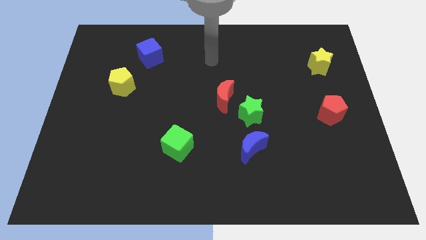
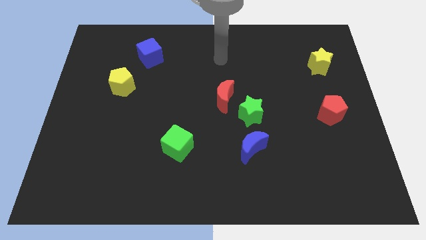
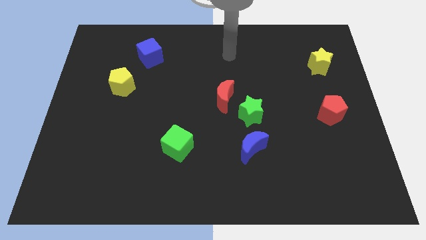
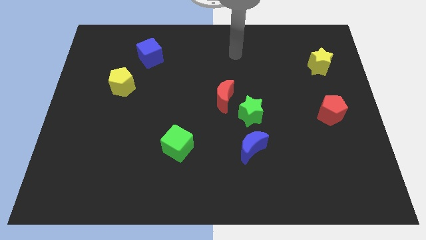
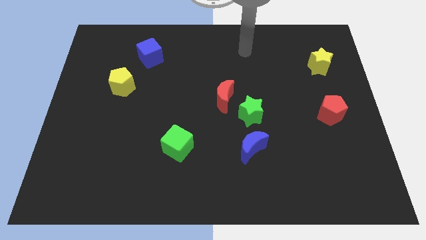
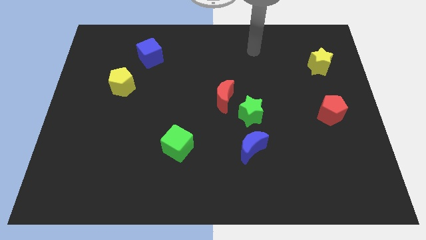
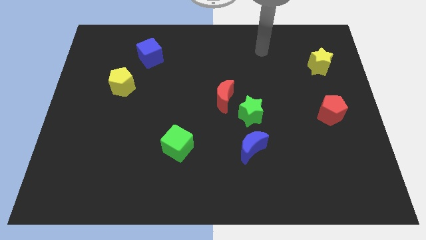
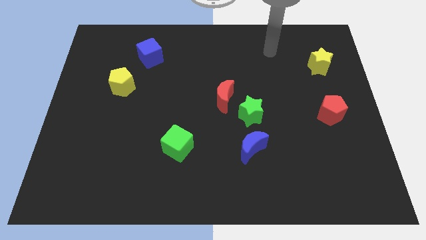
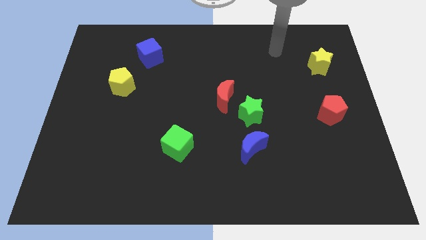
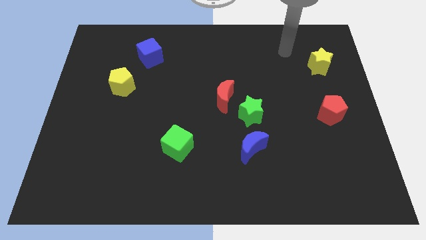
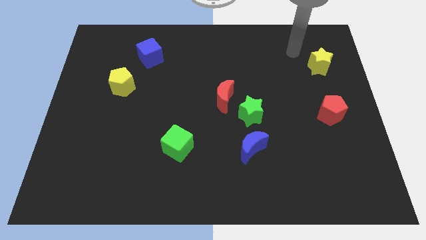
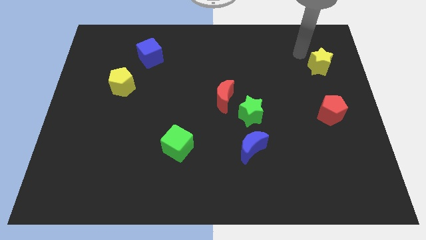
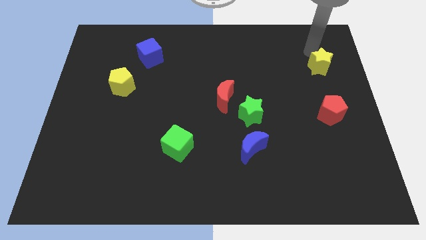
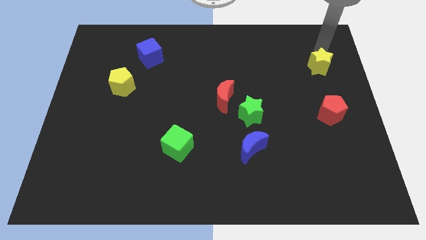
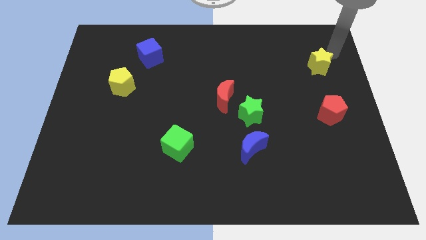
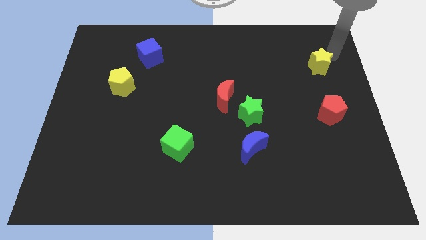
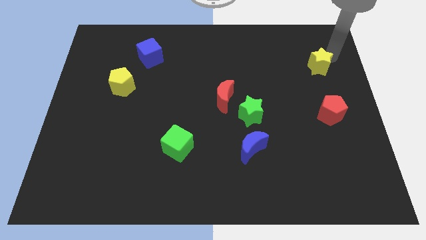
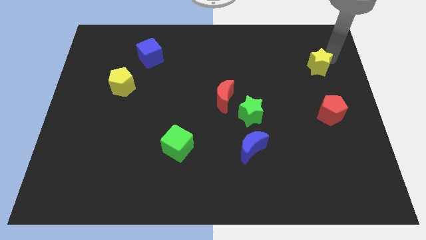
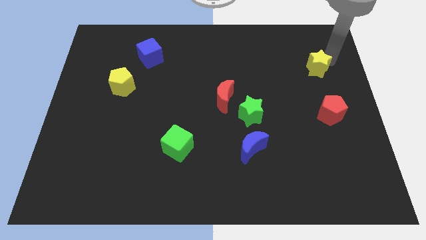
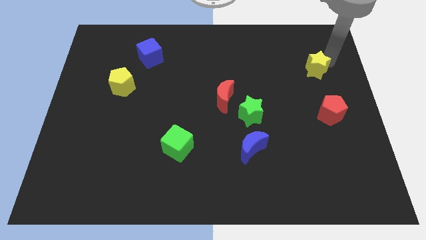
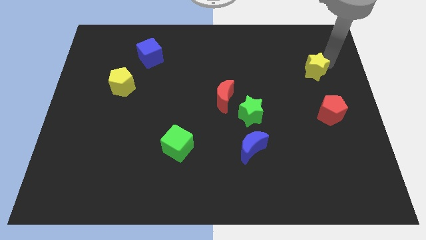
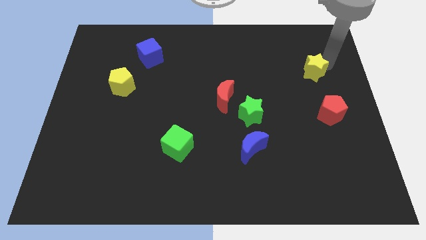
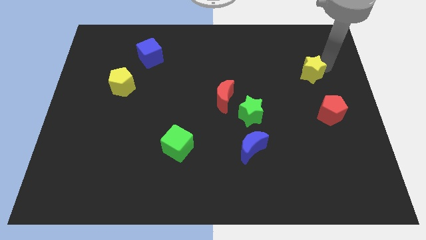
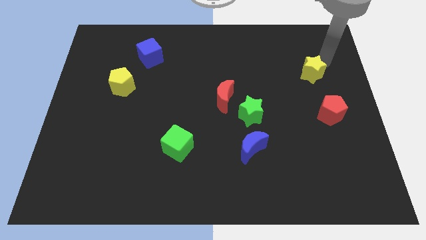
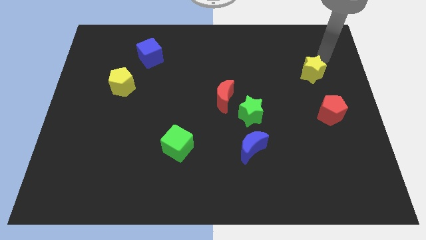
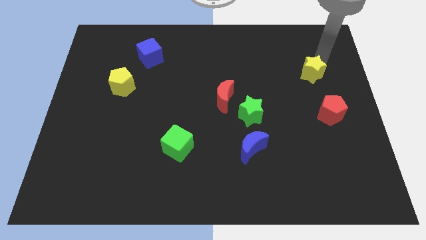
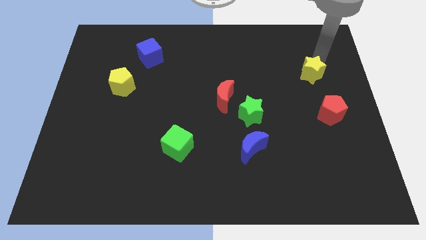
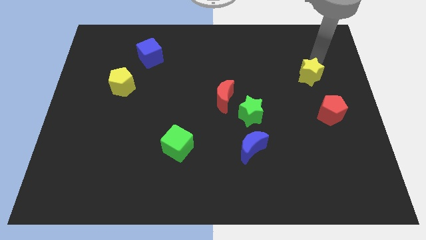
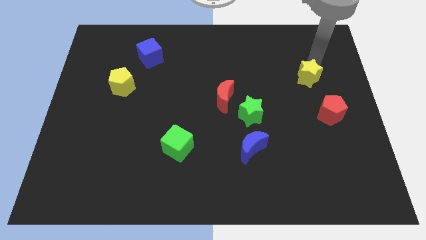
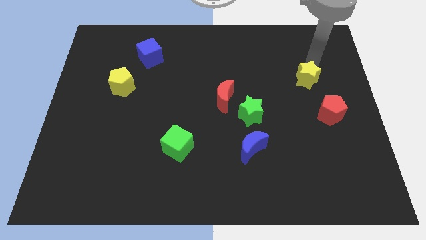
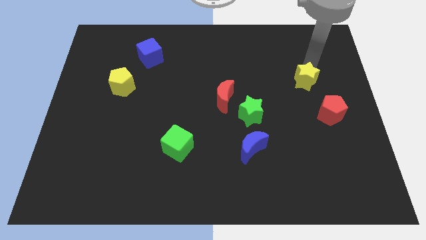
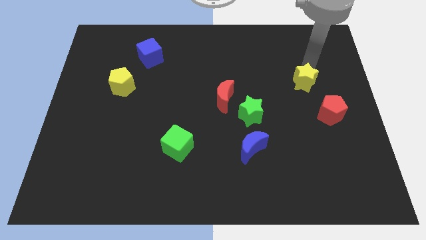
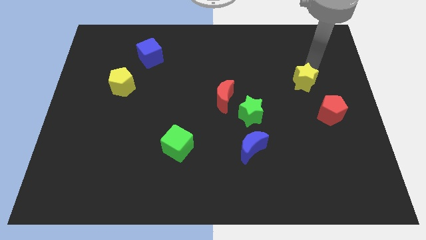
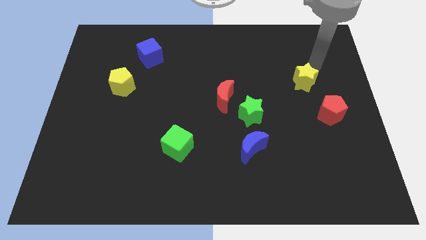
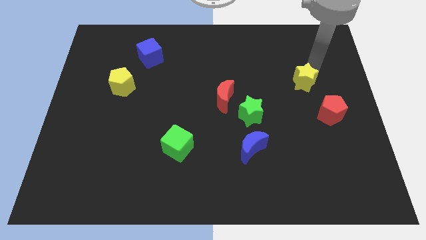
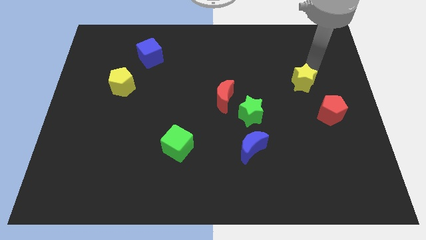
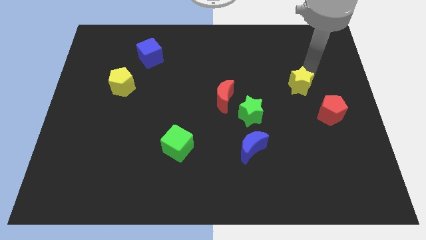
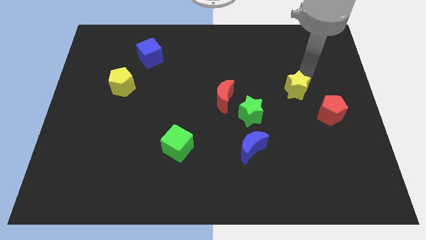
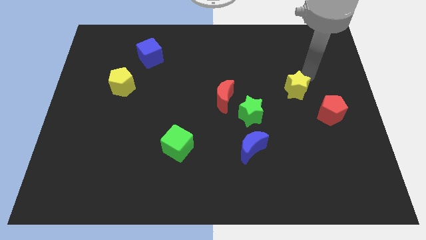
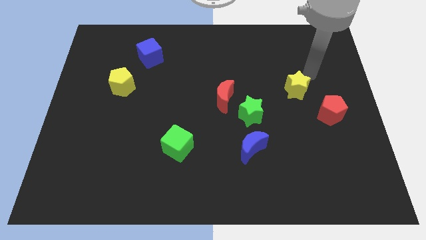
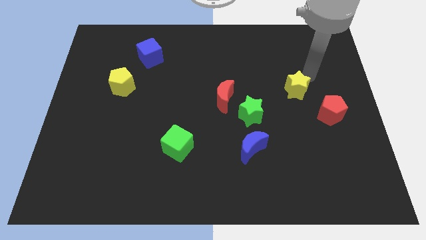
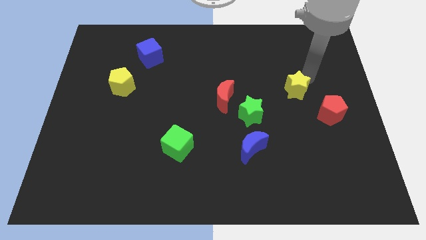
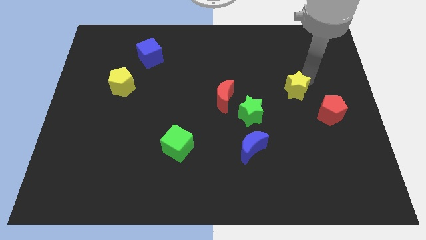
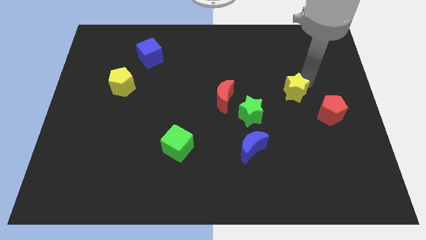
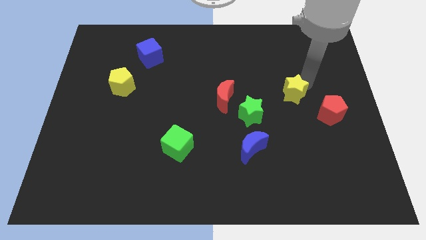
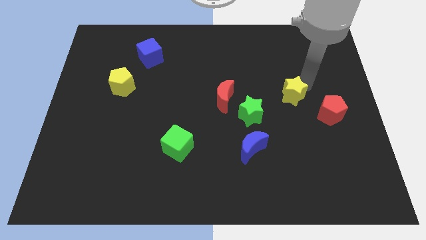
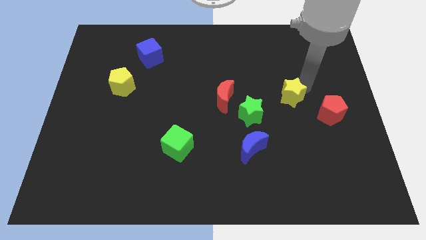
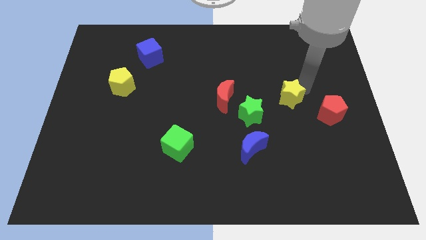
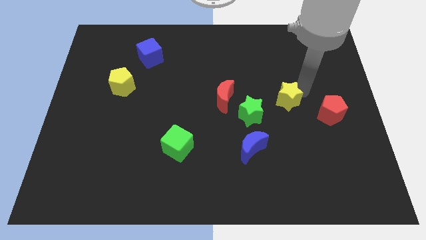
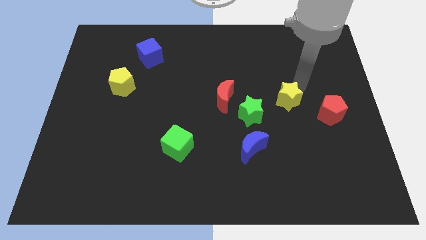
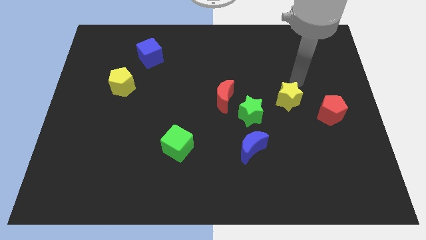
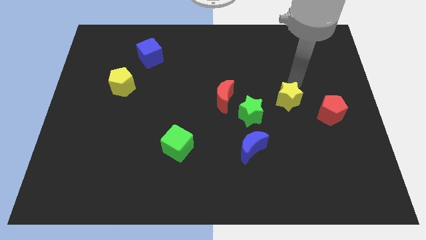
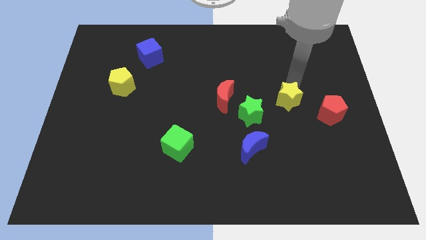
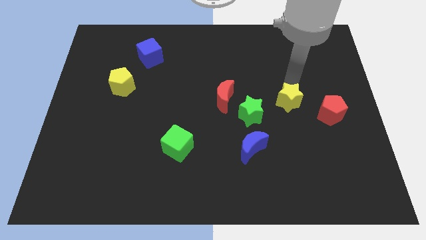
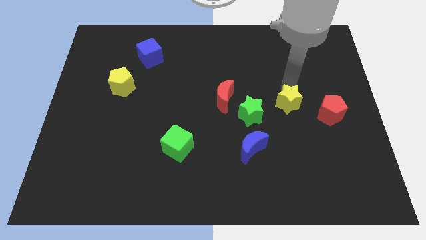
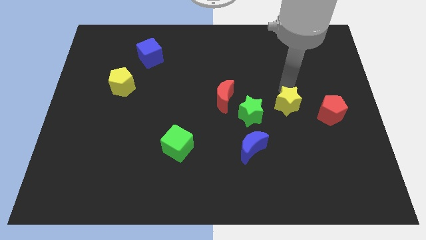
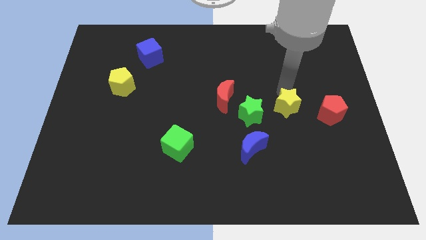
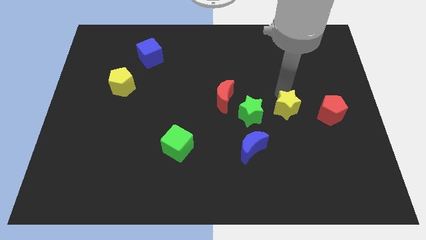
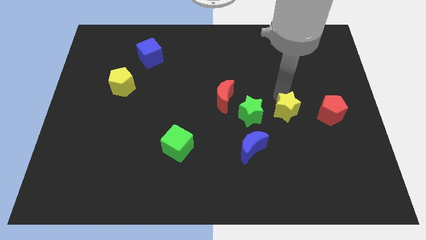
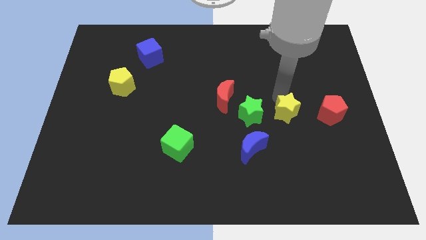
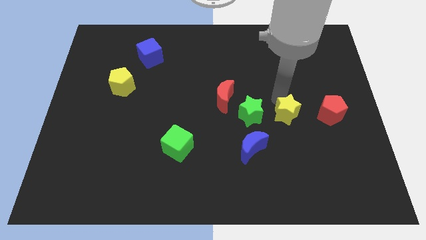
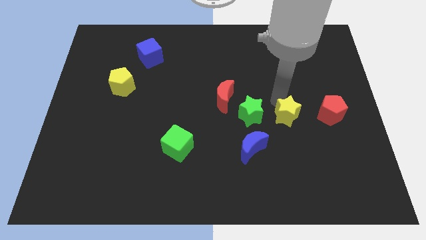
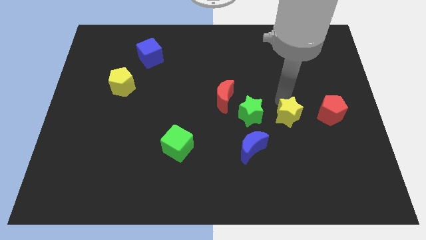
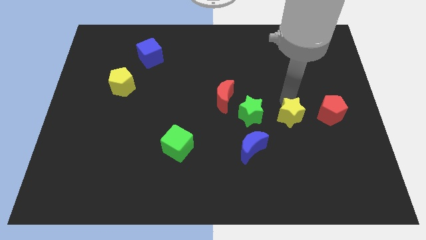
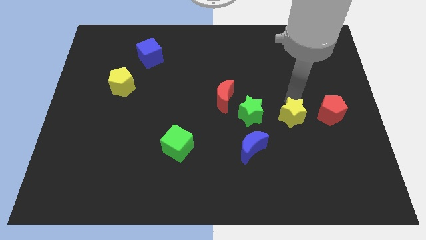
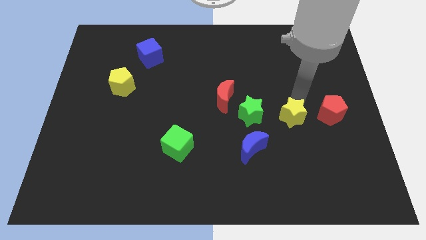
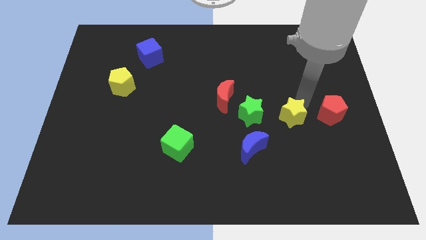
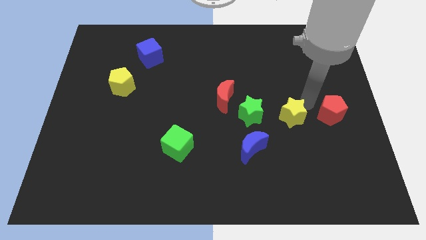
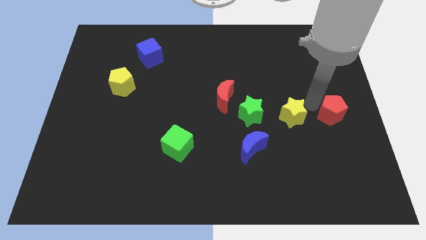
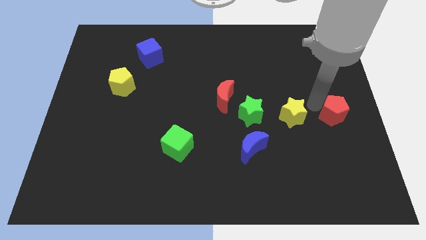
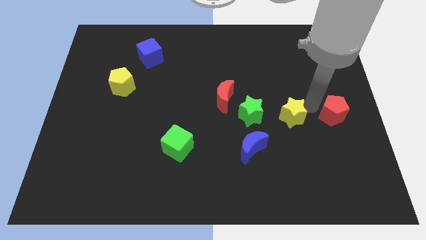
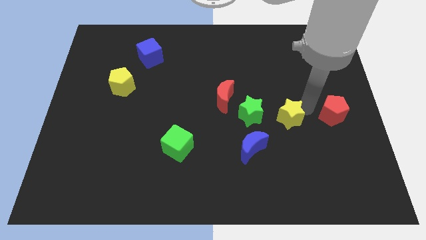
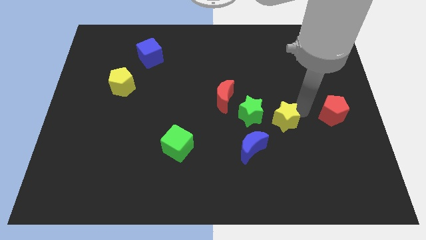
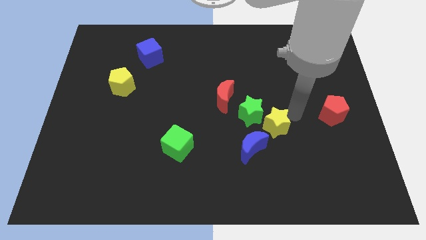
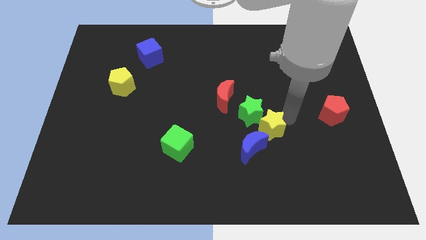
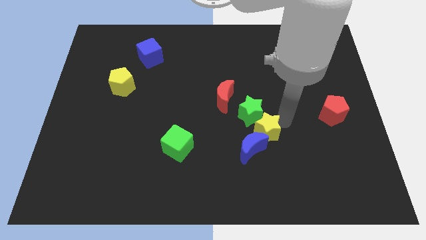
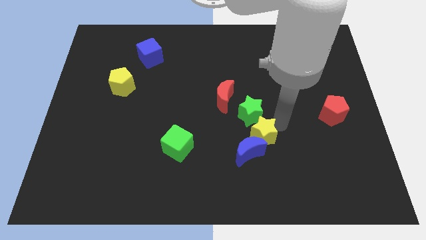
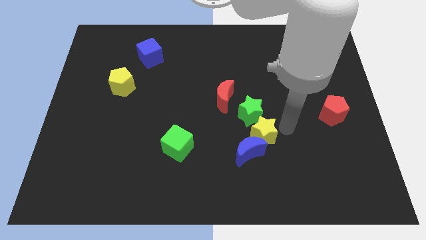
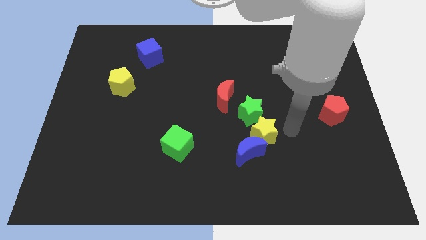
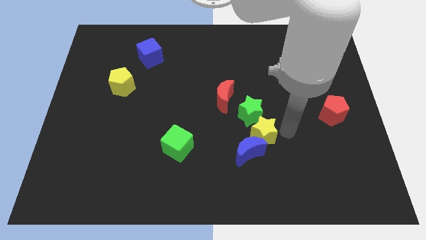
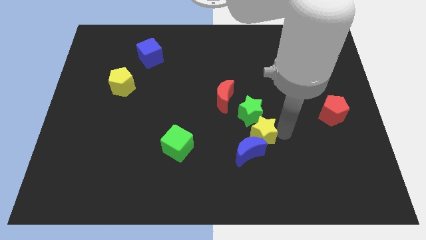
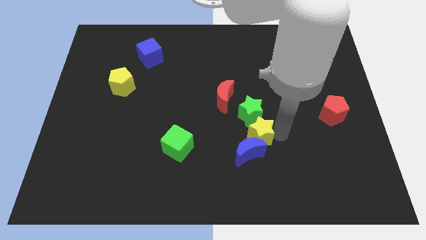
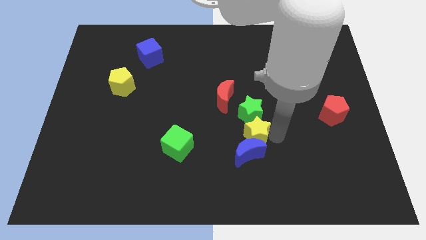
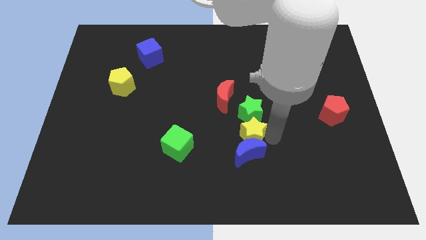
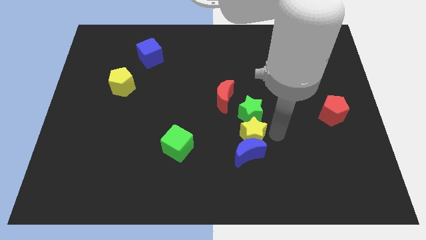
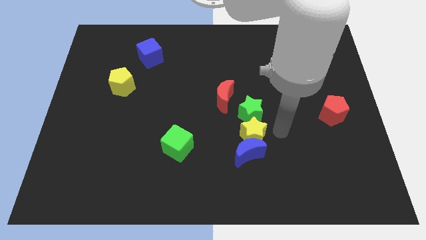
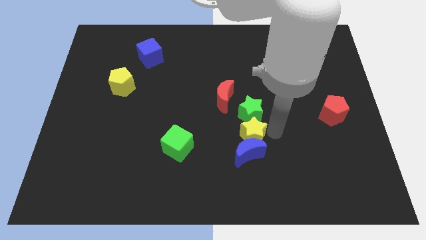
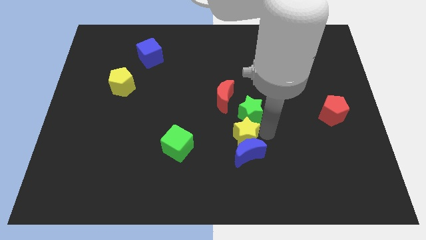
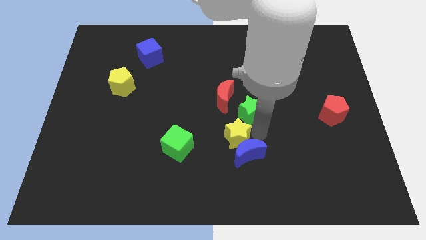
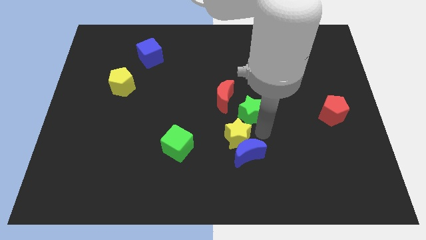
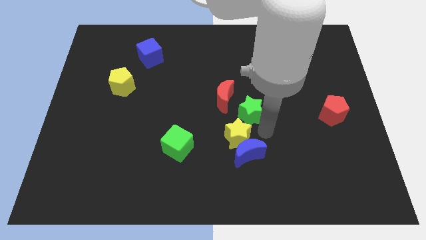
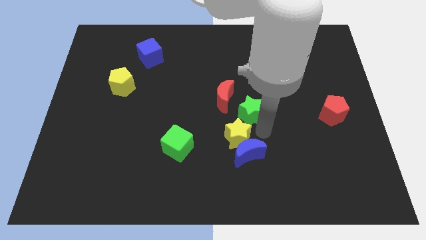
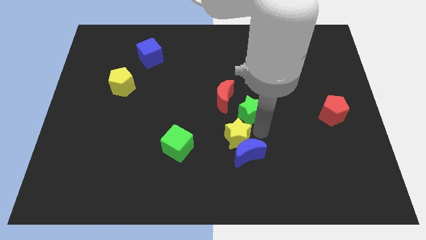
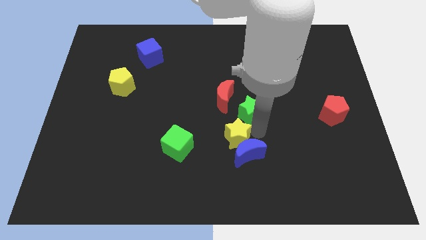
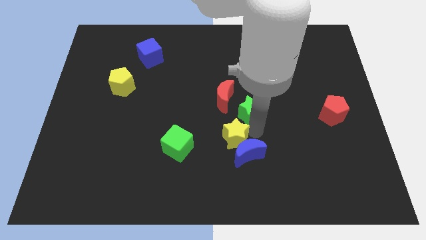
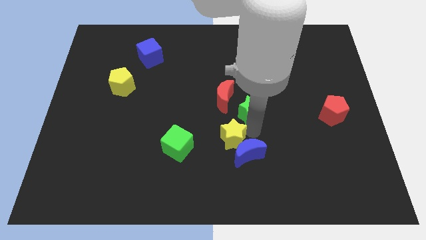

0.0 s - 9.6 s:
put the yellow star to the left side of the blue moon
